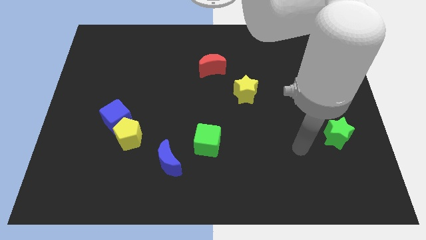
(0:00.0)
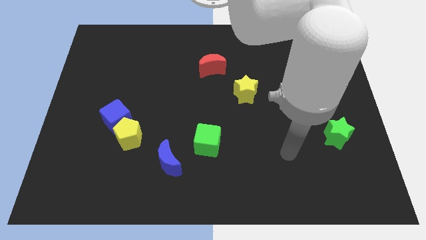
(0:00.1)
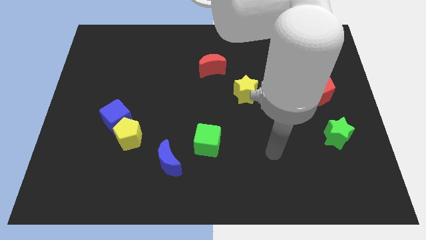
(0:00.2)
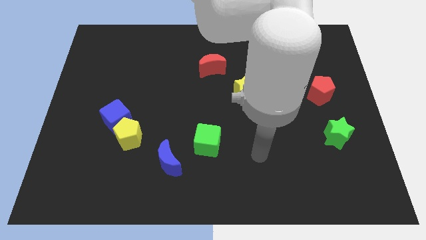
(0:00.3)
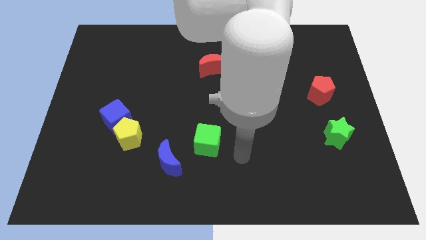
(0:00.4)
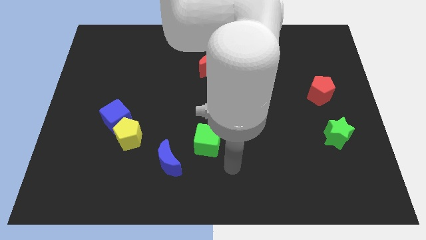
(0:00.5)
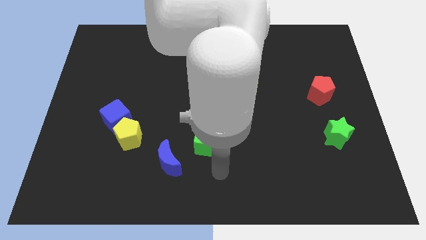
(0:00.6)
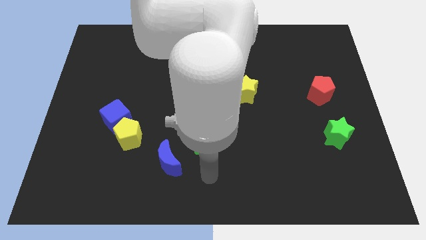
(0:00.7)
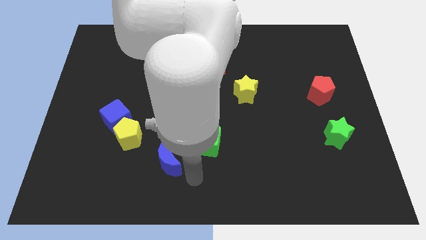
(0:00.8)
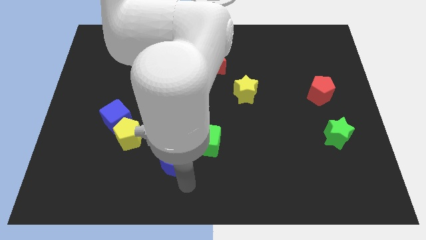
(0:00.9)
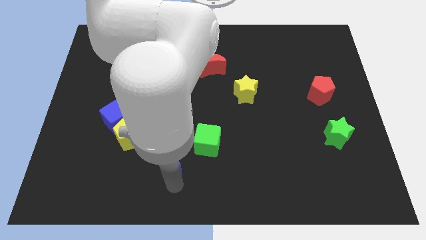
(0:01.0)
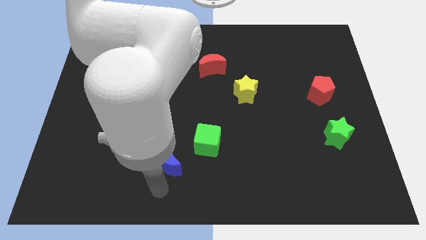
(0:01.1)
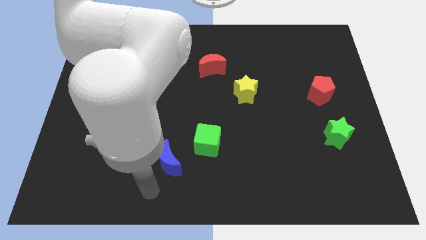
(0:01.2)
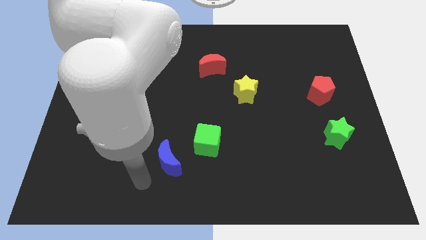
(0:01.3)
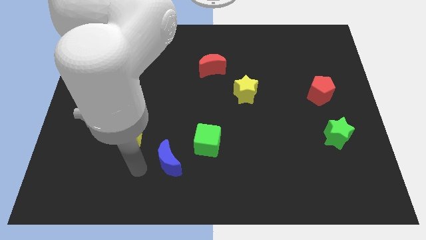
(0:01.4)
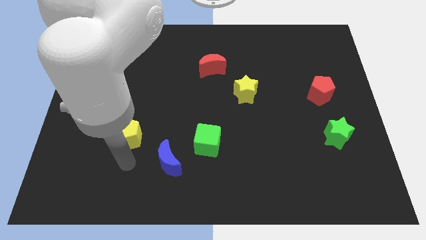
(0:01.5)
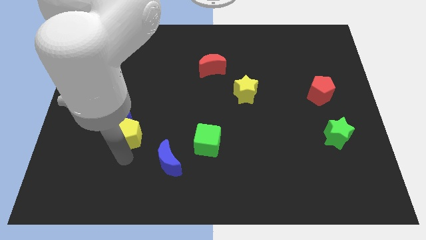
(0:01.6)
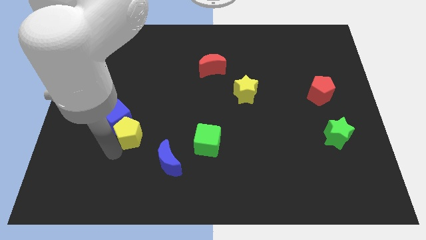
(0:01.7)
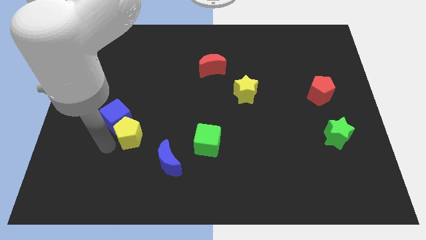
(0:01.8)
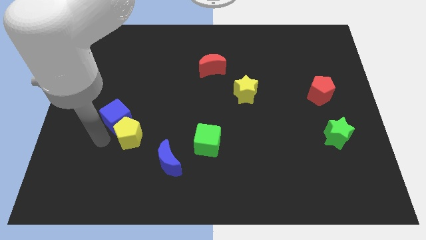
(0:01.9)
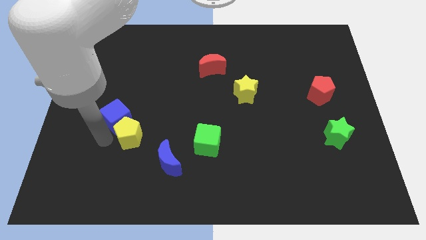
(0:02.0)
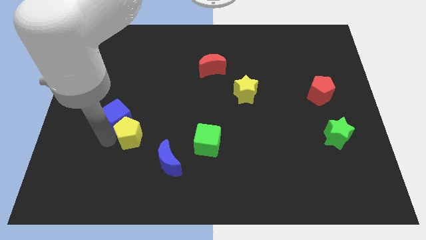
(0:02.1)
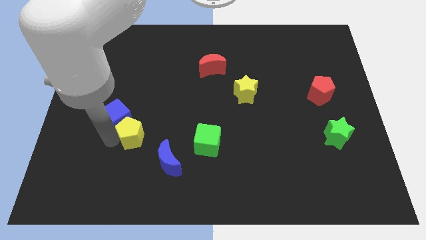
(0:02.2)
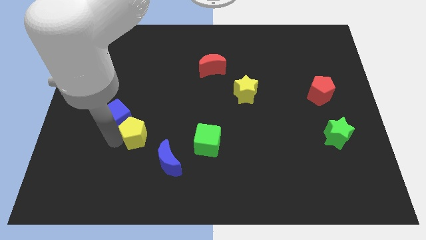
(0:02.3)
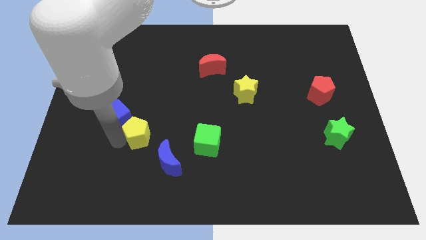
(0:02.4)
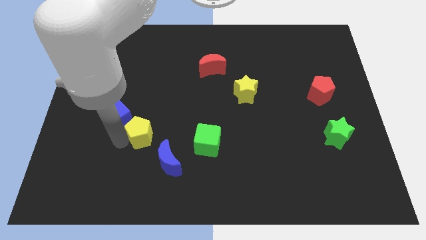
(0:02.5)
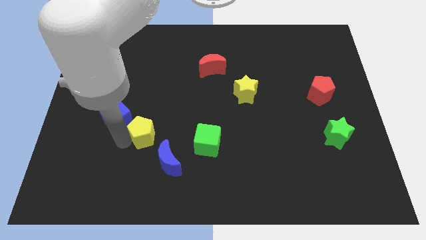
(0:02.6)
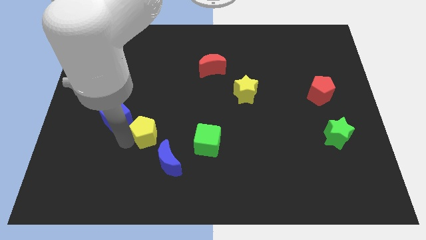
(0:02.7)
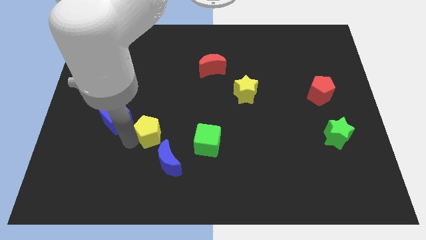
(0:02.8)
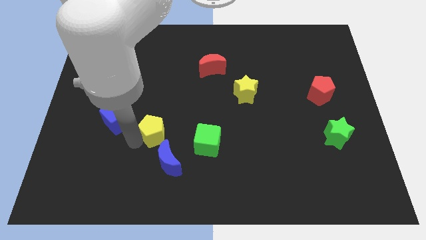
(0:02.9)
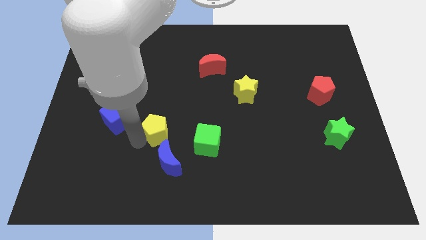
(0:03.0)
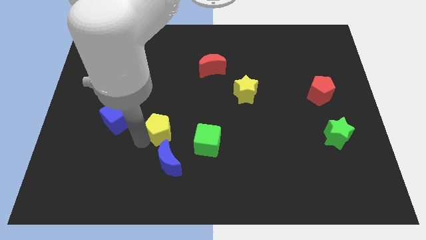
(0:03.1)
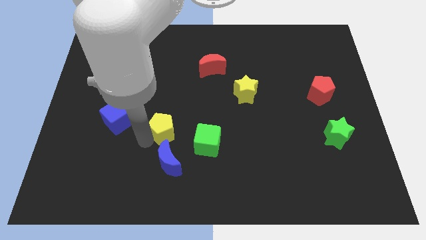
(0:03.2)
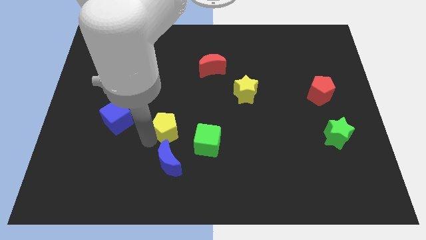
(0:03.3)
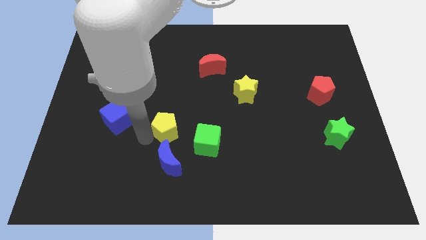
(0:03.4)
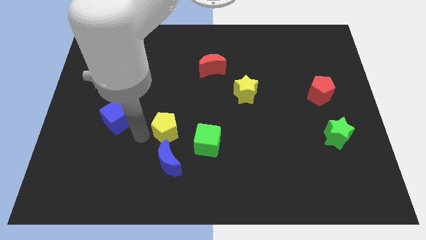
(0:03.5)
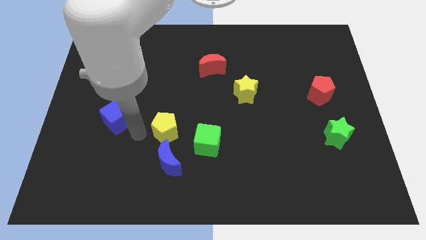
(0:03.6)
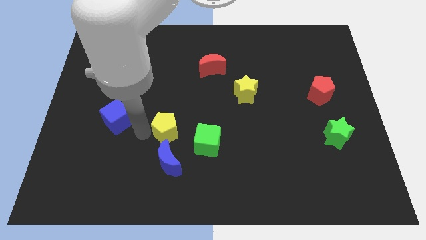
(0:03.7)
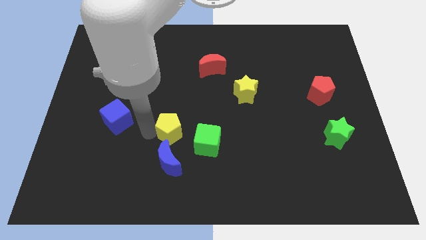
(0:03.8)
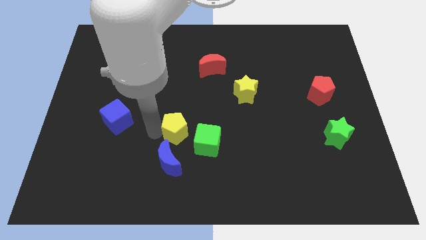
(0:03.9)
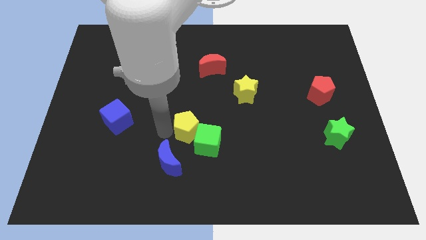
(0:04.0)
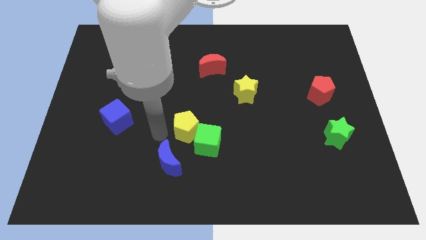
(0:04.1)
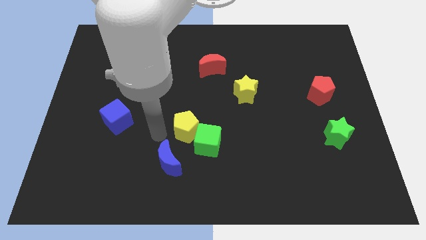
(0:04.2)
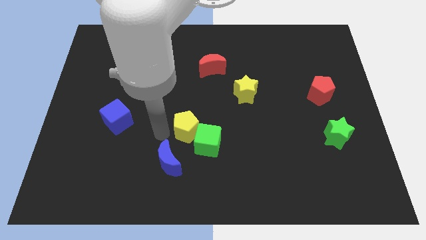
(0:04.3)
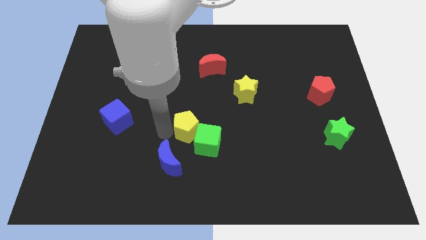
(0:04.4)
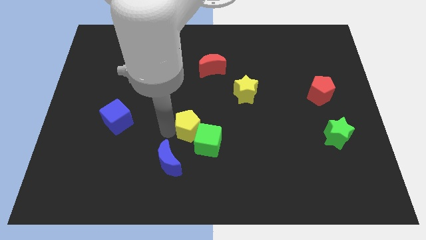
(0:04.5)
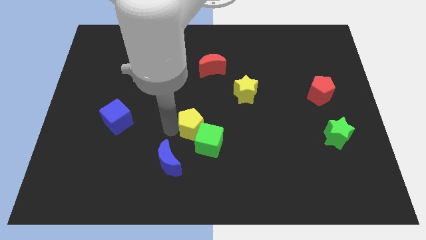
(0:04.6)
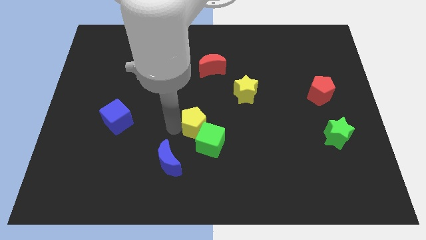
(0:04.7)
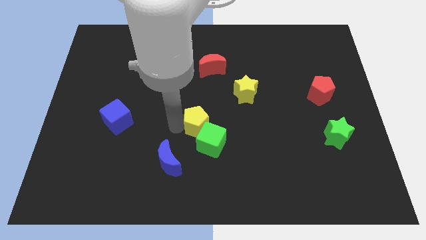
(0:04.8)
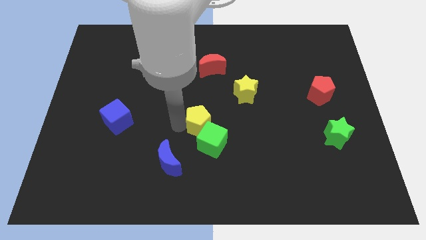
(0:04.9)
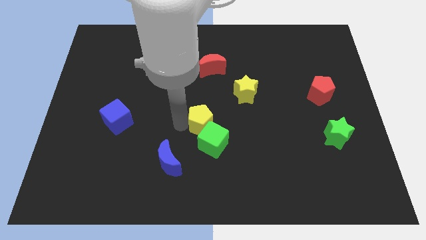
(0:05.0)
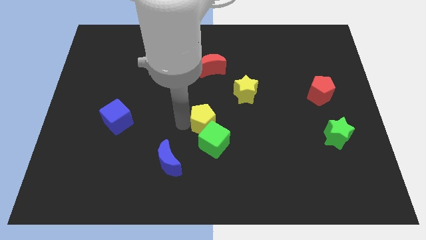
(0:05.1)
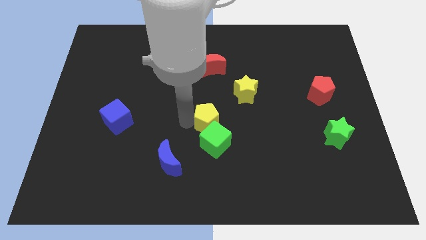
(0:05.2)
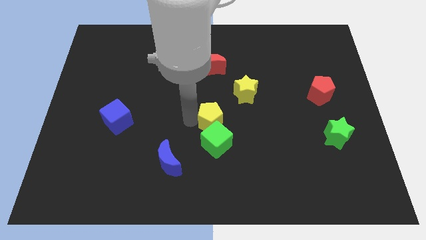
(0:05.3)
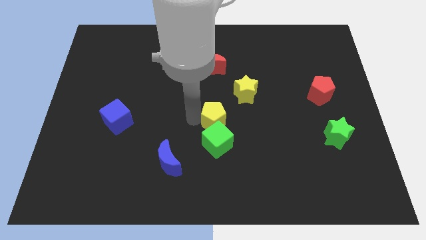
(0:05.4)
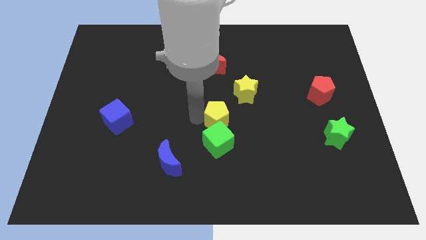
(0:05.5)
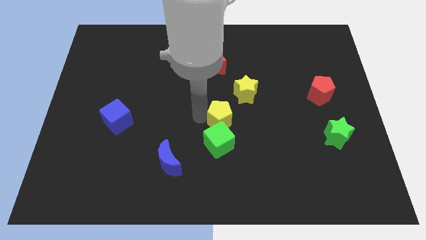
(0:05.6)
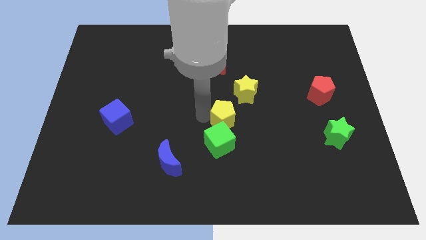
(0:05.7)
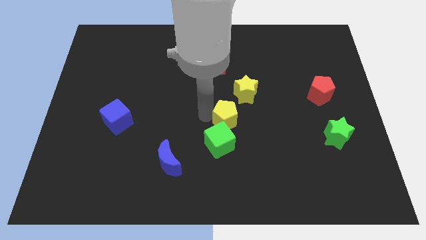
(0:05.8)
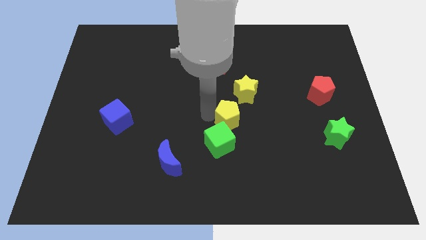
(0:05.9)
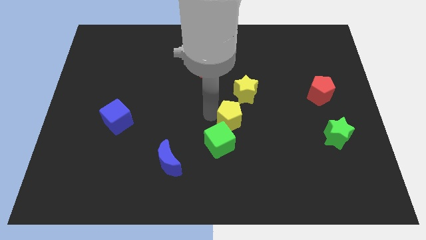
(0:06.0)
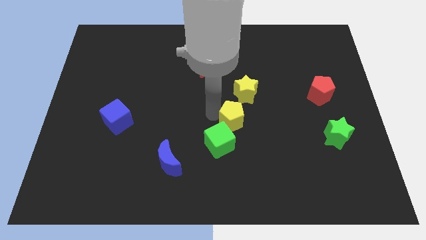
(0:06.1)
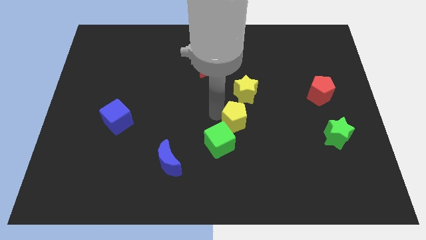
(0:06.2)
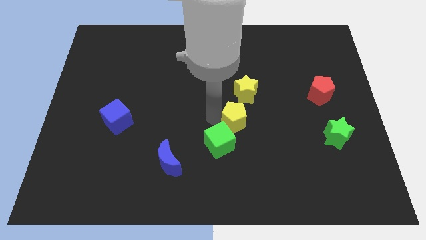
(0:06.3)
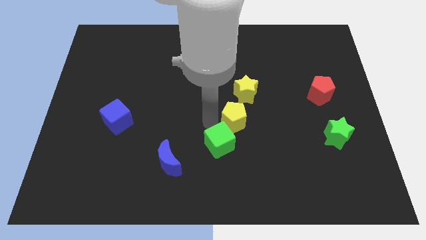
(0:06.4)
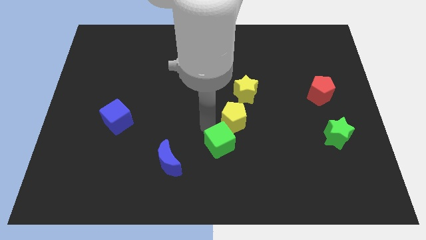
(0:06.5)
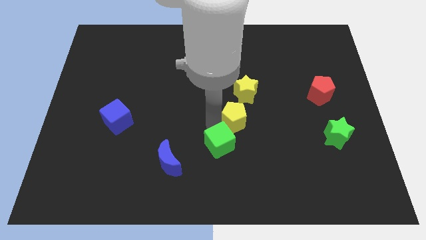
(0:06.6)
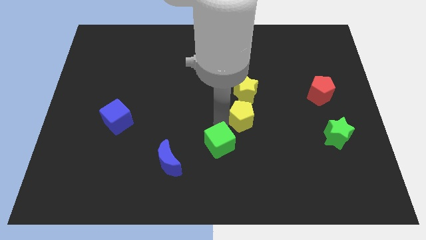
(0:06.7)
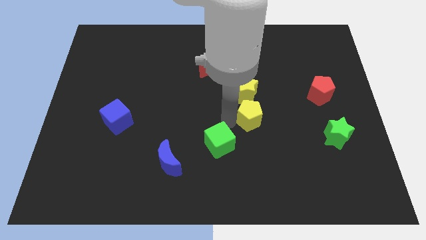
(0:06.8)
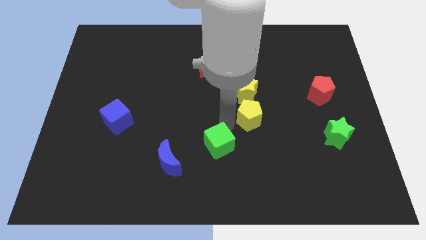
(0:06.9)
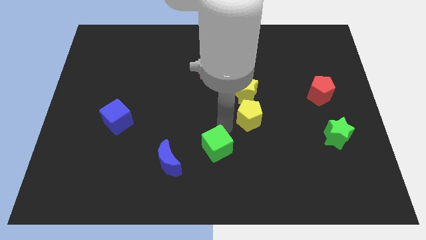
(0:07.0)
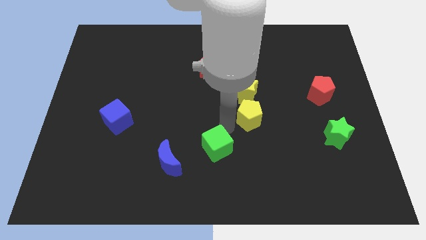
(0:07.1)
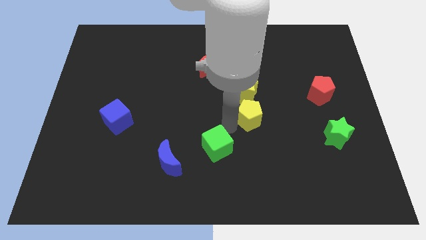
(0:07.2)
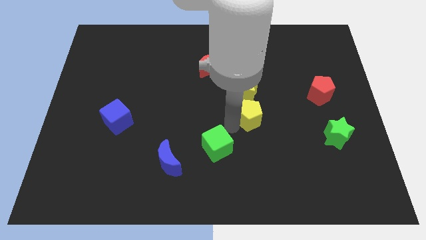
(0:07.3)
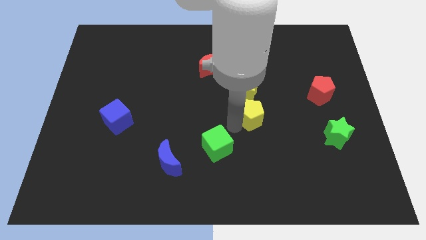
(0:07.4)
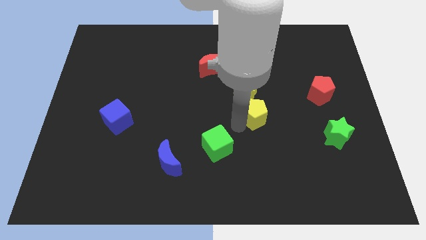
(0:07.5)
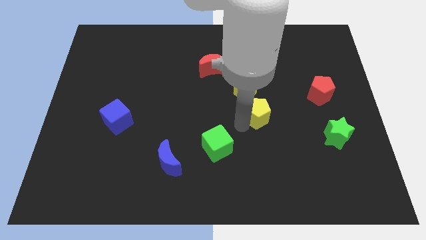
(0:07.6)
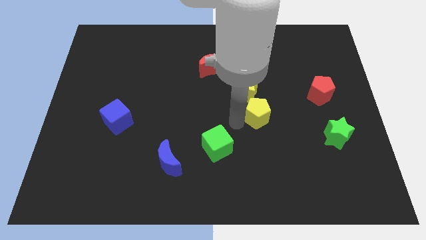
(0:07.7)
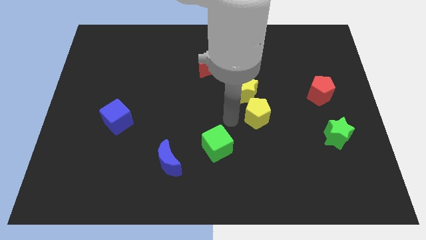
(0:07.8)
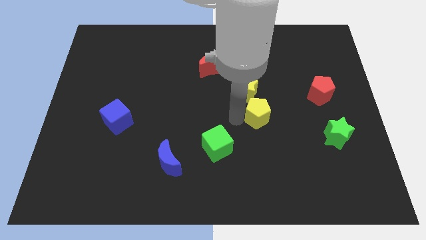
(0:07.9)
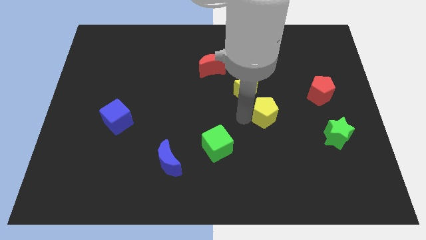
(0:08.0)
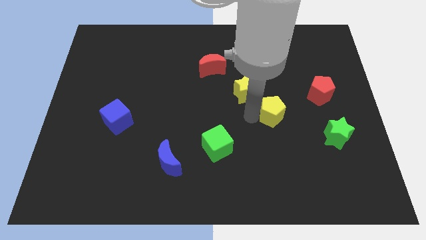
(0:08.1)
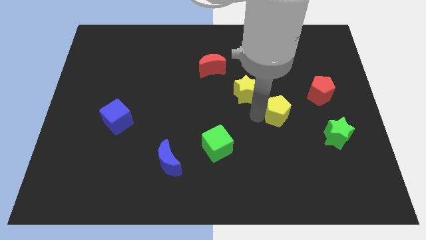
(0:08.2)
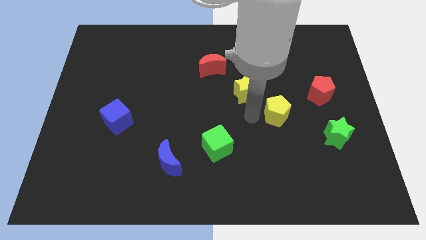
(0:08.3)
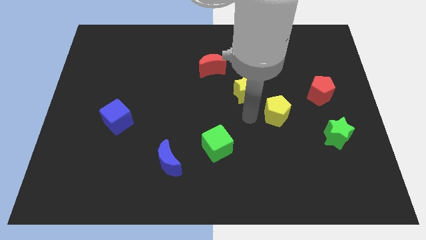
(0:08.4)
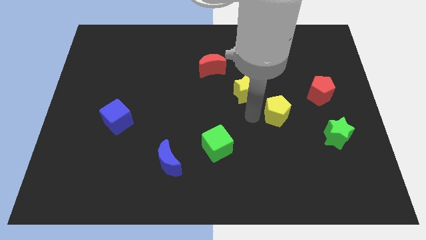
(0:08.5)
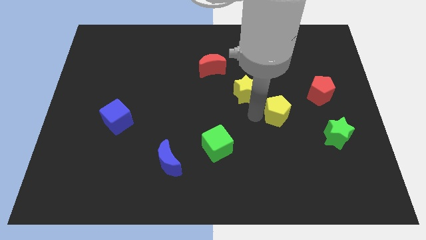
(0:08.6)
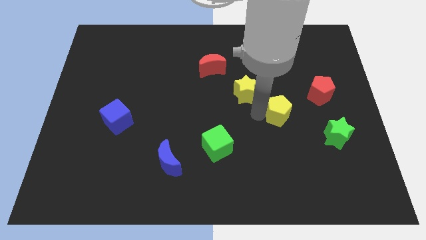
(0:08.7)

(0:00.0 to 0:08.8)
move the yellow pentagon diagonally down and to the left of the red pentagon
